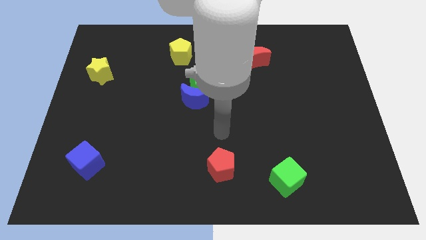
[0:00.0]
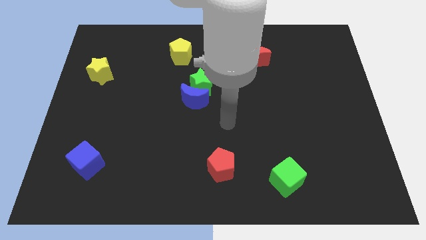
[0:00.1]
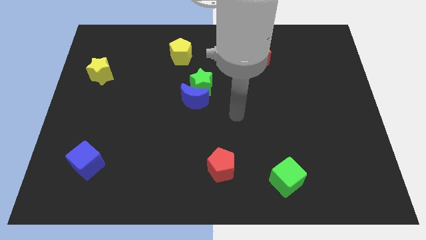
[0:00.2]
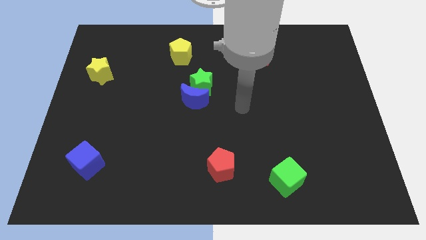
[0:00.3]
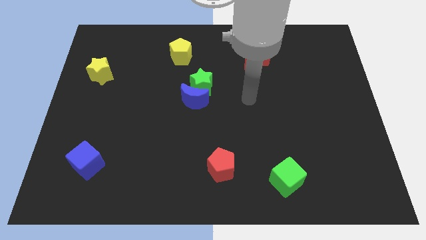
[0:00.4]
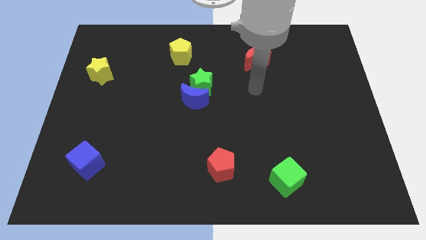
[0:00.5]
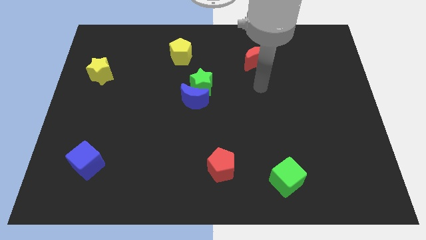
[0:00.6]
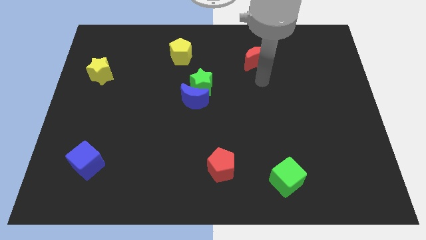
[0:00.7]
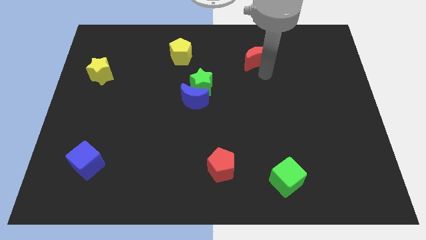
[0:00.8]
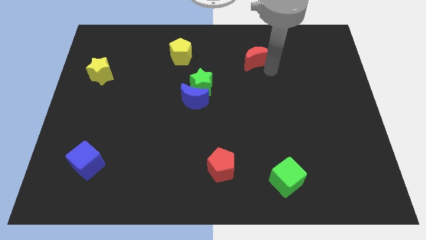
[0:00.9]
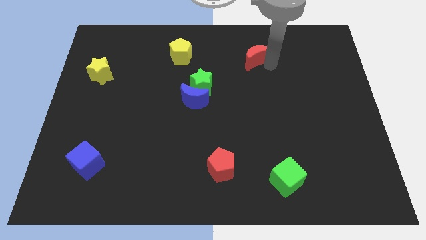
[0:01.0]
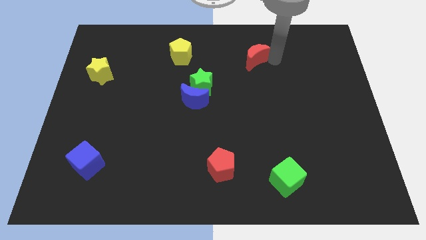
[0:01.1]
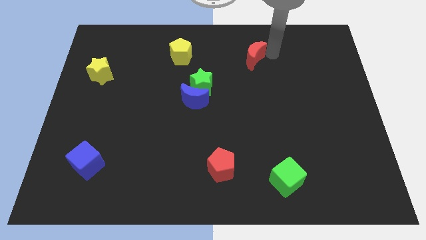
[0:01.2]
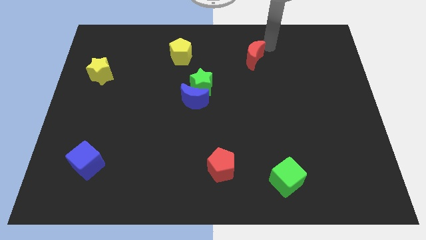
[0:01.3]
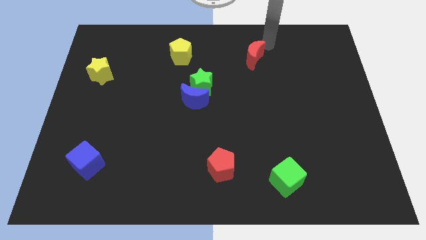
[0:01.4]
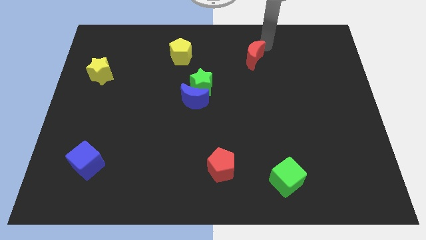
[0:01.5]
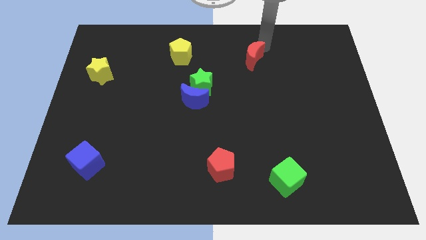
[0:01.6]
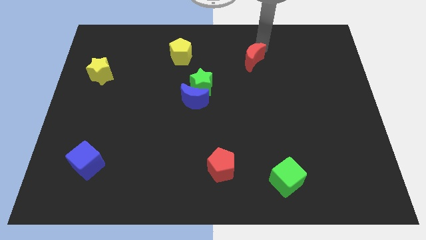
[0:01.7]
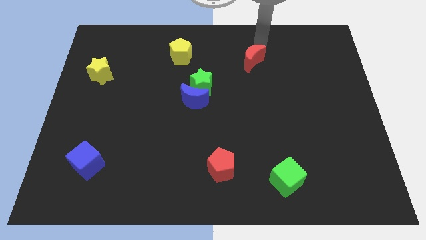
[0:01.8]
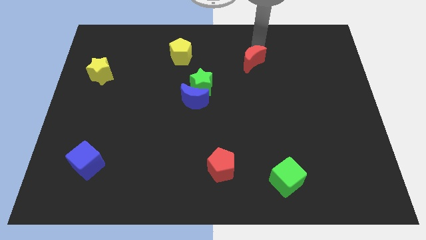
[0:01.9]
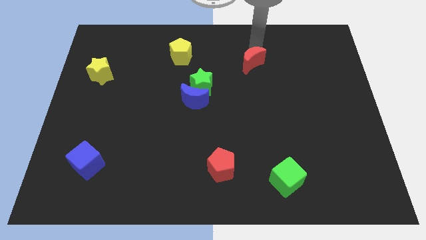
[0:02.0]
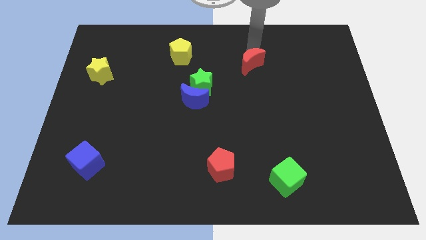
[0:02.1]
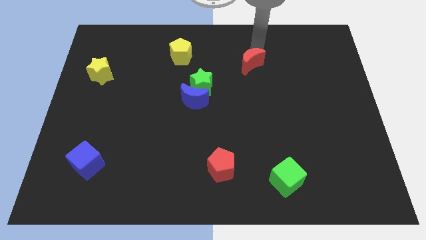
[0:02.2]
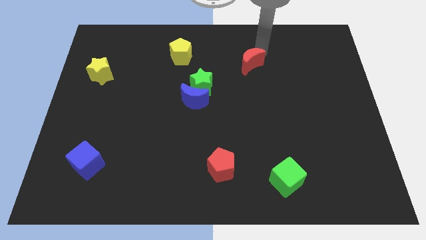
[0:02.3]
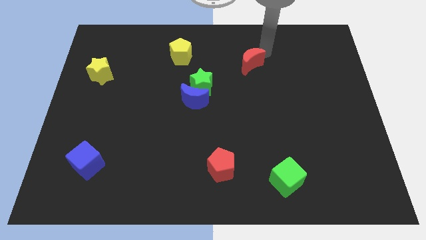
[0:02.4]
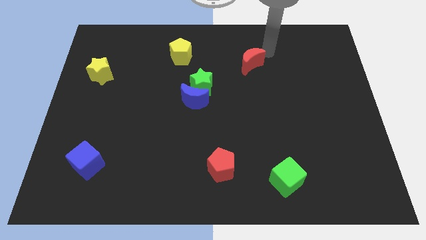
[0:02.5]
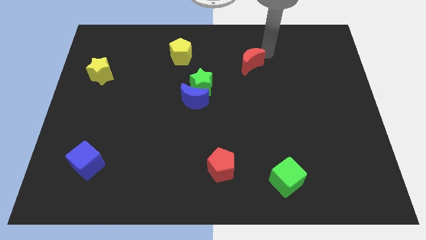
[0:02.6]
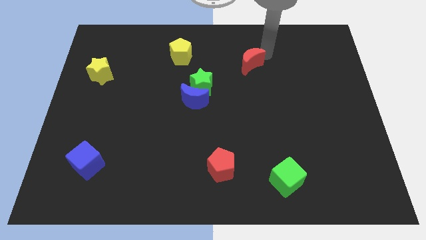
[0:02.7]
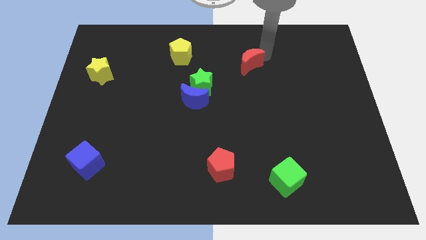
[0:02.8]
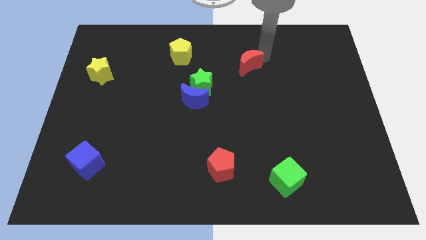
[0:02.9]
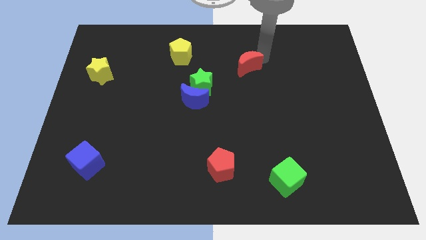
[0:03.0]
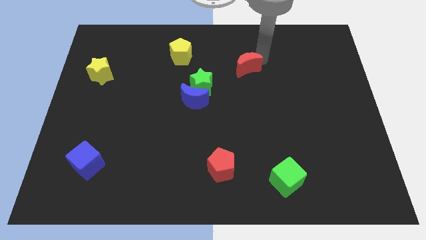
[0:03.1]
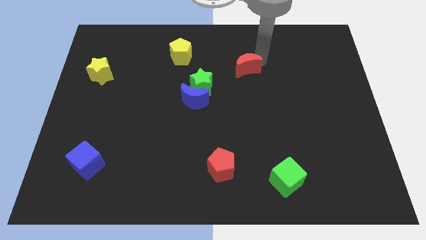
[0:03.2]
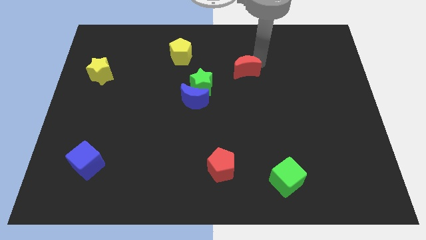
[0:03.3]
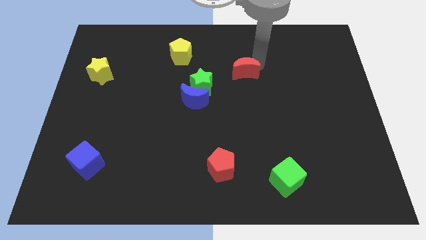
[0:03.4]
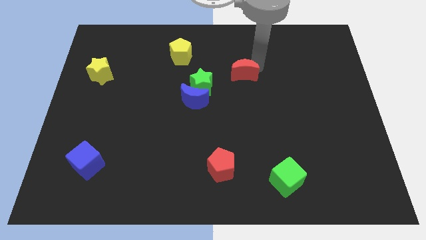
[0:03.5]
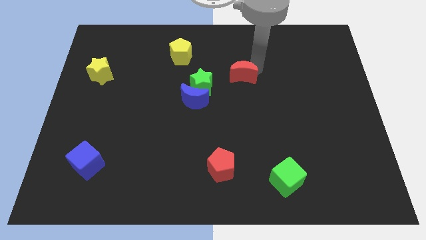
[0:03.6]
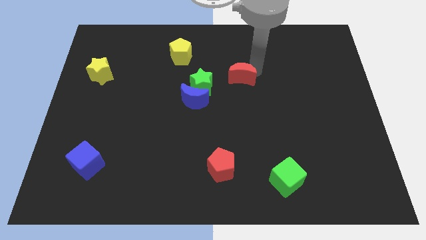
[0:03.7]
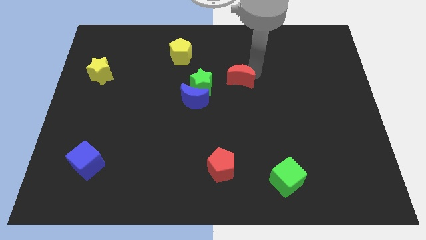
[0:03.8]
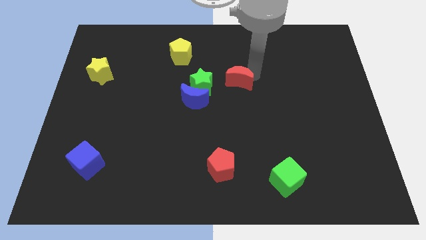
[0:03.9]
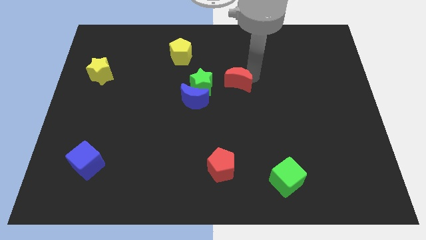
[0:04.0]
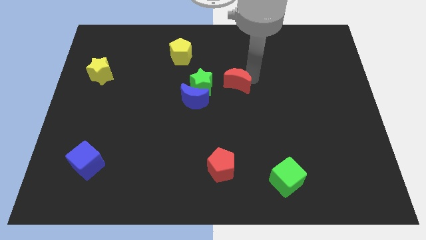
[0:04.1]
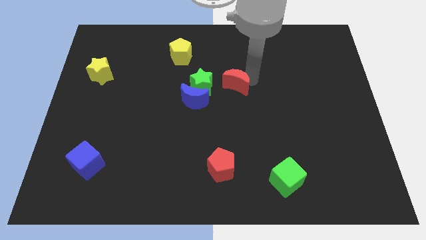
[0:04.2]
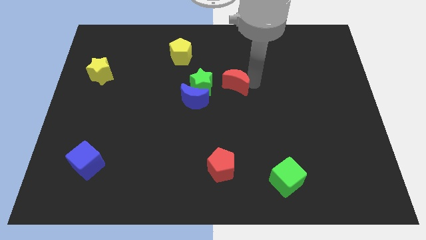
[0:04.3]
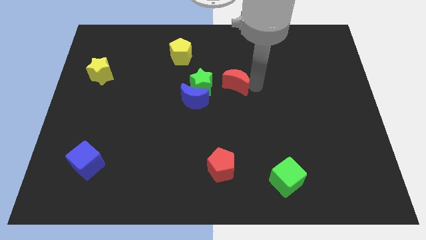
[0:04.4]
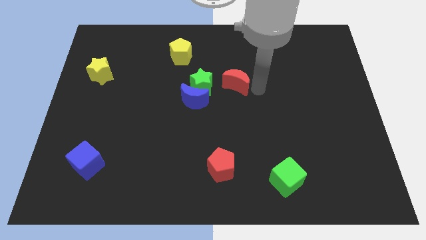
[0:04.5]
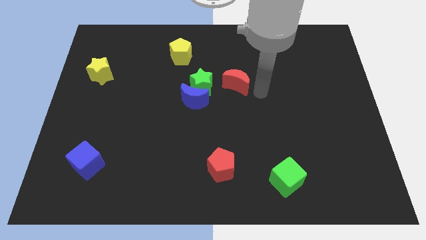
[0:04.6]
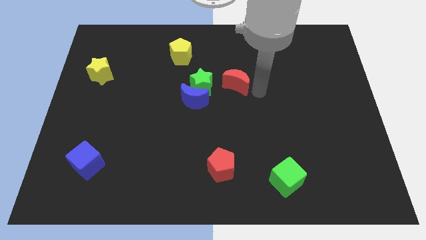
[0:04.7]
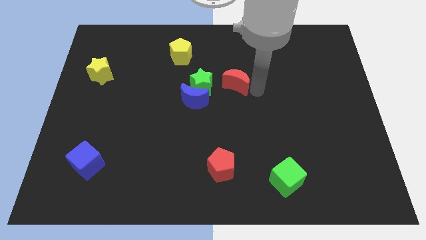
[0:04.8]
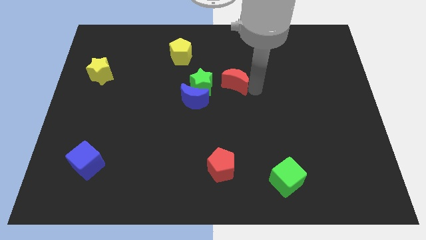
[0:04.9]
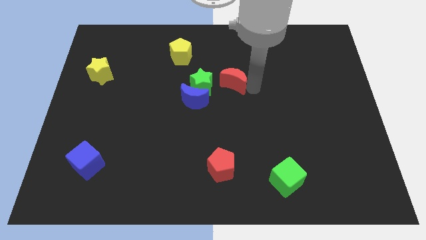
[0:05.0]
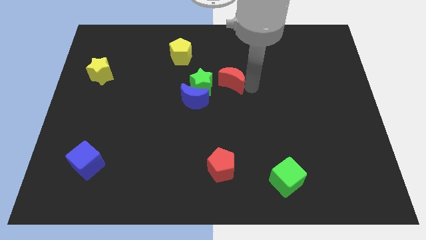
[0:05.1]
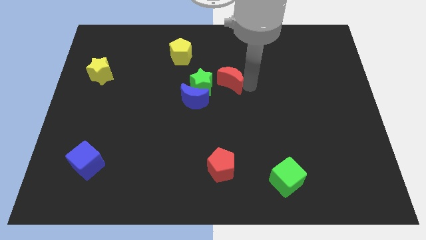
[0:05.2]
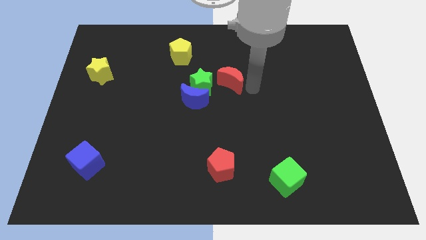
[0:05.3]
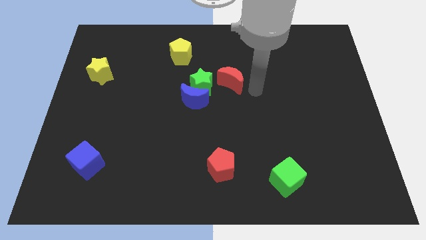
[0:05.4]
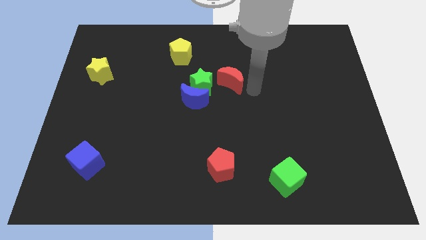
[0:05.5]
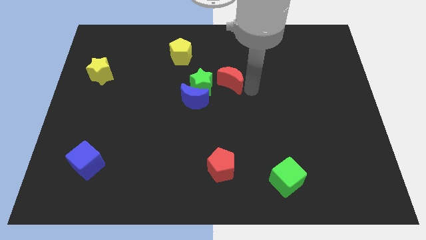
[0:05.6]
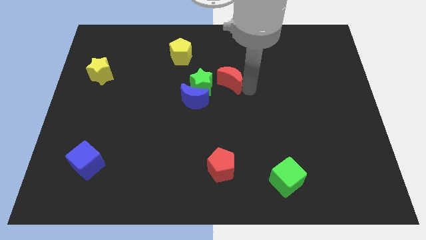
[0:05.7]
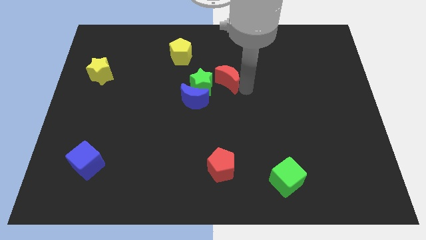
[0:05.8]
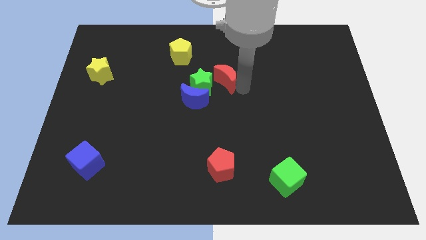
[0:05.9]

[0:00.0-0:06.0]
push the red moon to the green star

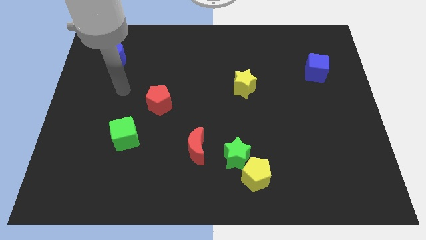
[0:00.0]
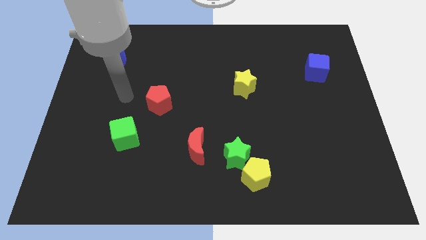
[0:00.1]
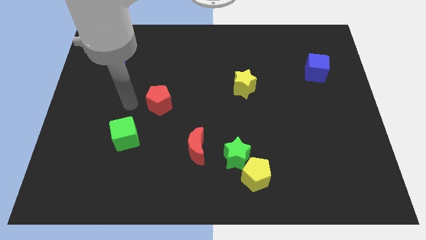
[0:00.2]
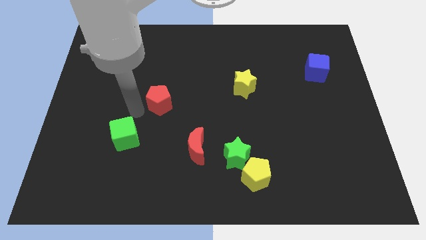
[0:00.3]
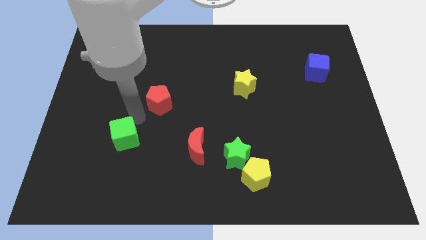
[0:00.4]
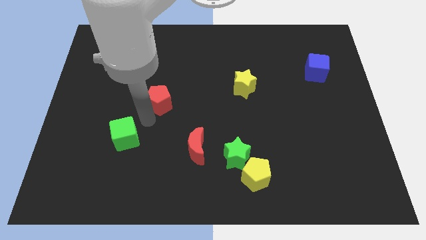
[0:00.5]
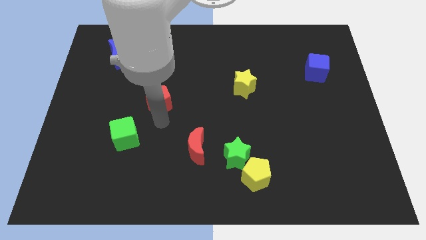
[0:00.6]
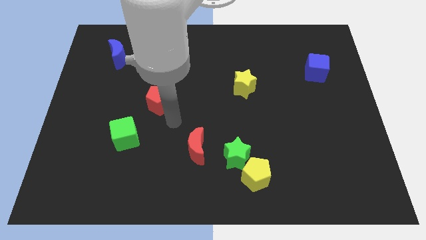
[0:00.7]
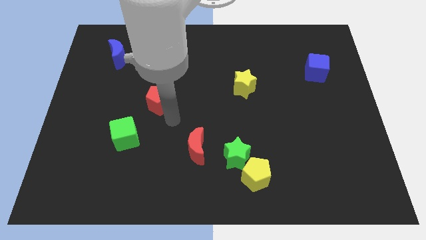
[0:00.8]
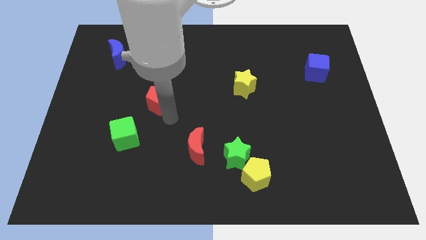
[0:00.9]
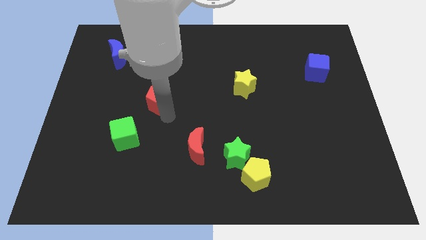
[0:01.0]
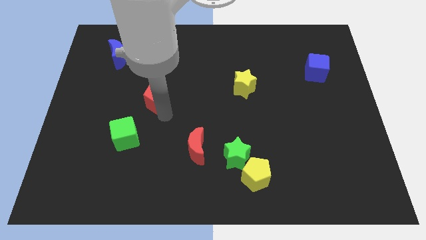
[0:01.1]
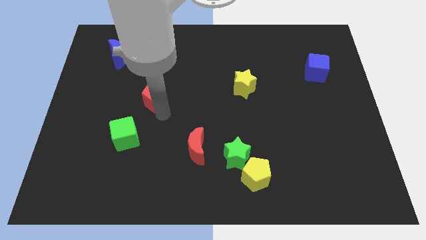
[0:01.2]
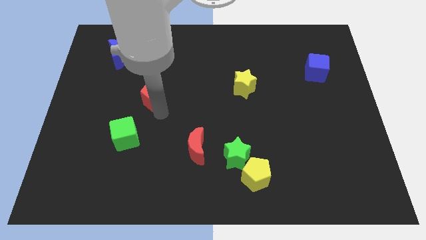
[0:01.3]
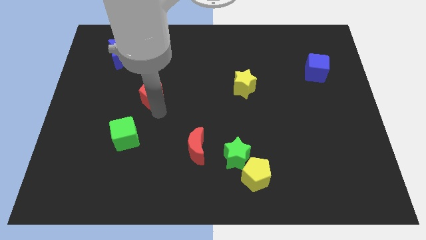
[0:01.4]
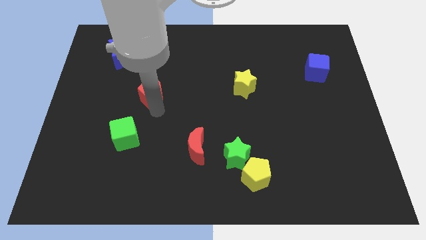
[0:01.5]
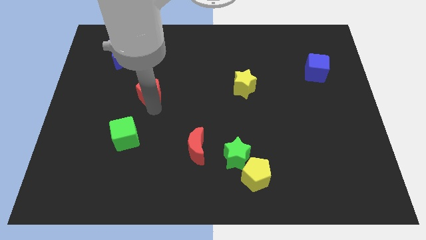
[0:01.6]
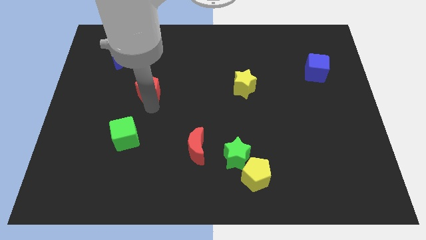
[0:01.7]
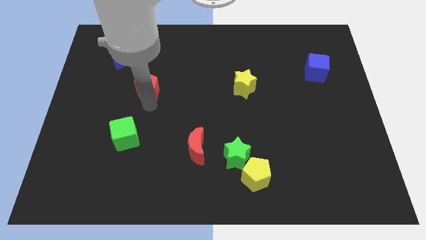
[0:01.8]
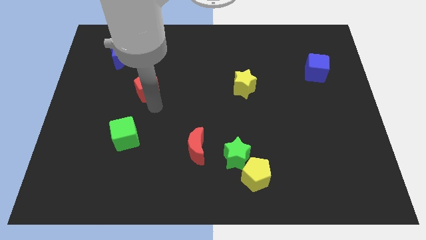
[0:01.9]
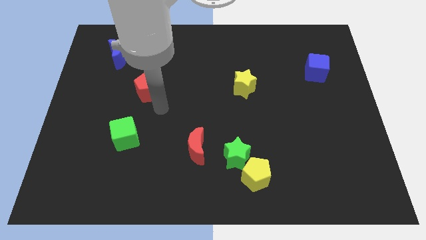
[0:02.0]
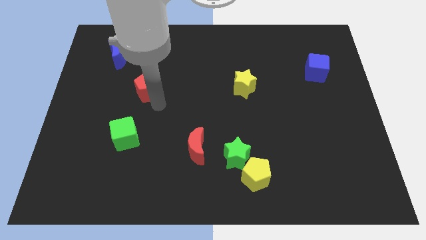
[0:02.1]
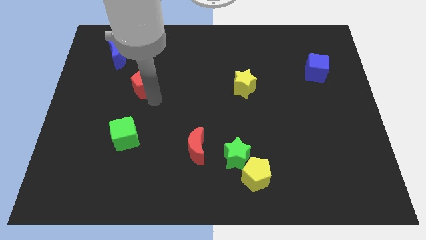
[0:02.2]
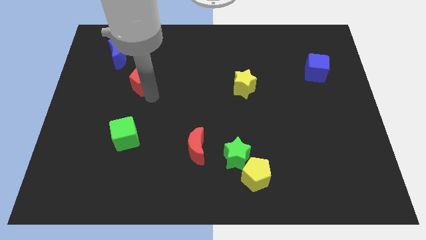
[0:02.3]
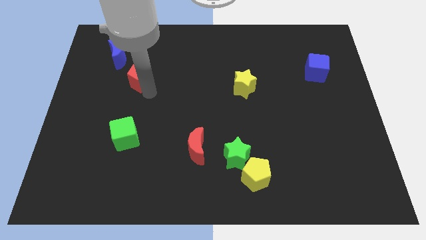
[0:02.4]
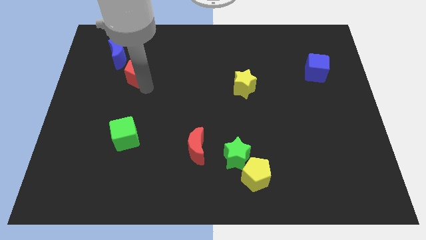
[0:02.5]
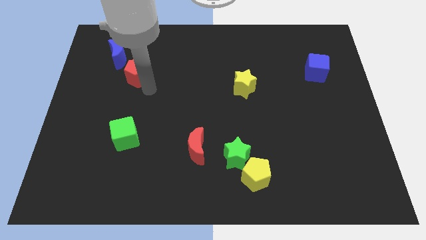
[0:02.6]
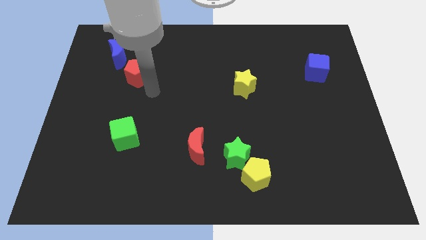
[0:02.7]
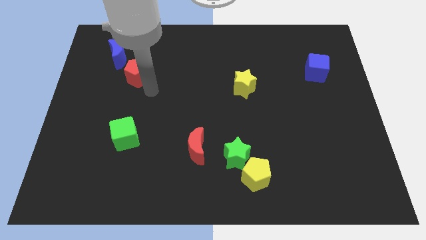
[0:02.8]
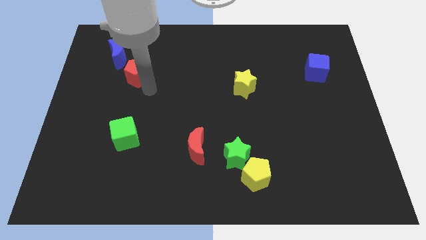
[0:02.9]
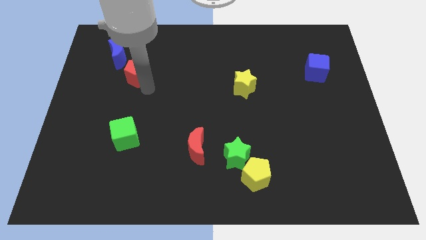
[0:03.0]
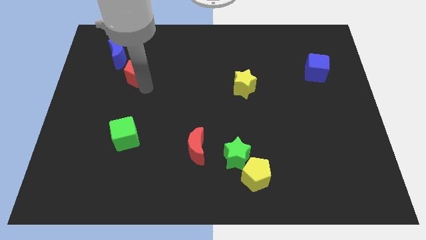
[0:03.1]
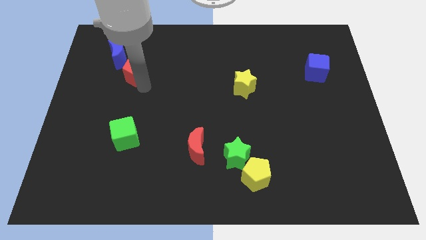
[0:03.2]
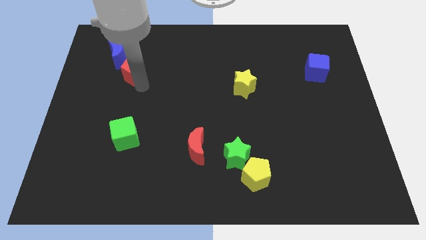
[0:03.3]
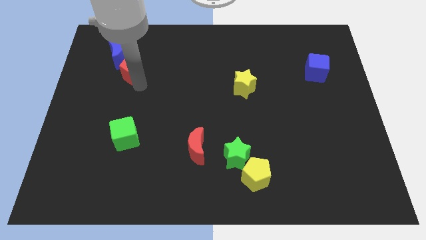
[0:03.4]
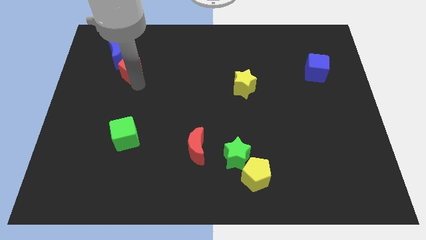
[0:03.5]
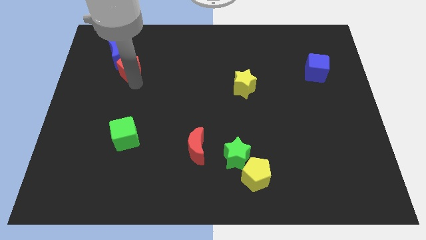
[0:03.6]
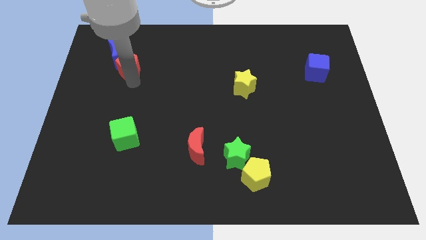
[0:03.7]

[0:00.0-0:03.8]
move the red pentagon to the blue moon
